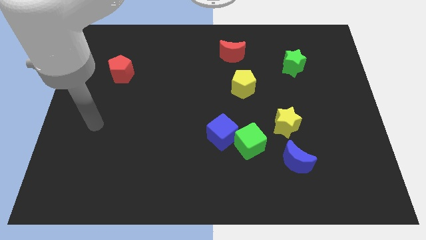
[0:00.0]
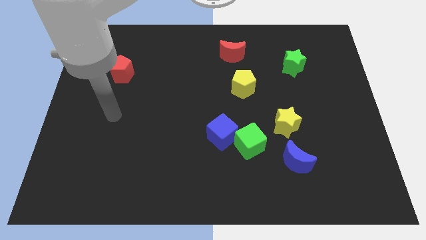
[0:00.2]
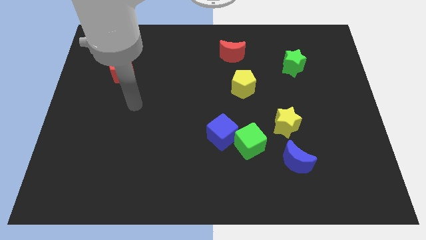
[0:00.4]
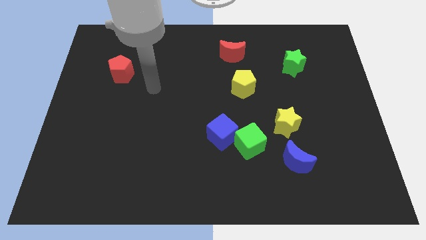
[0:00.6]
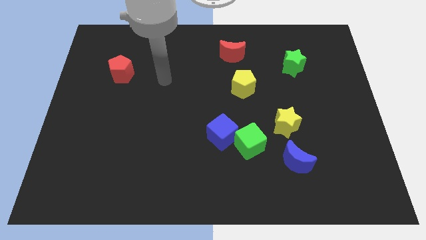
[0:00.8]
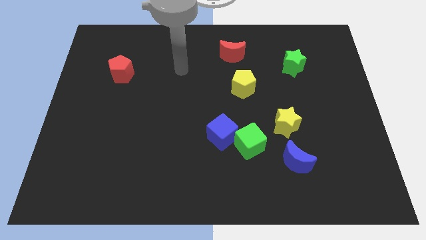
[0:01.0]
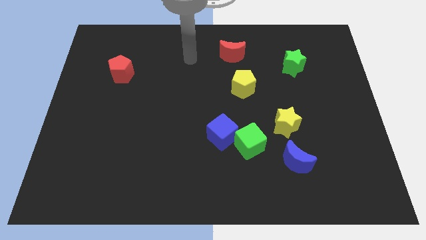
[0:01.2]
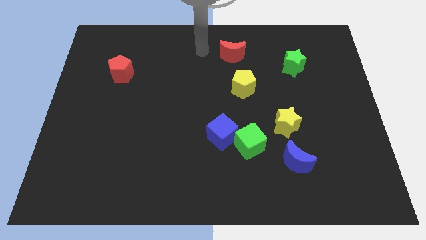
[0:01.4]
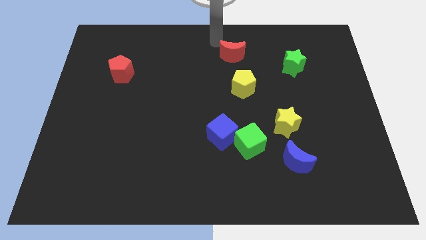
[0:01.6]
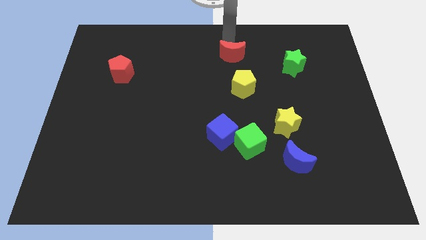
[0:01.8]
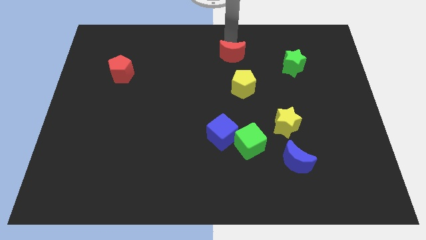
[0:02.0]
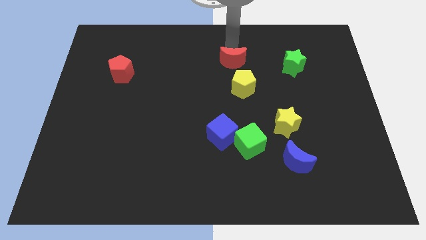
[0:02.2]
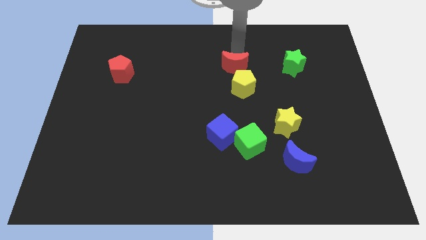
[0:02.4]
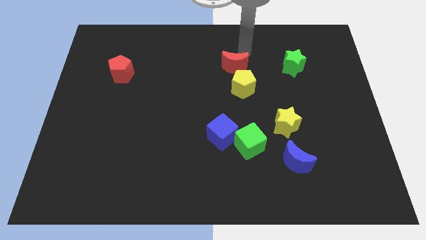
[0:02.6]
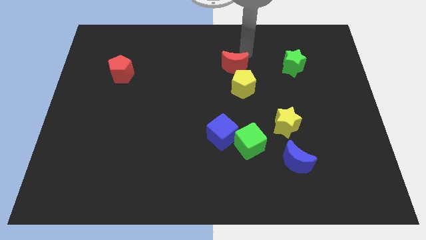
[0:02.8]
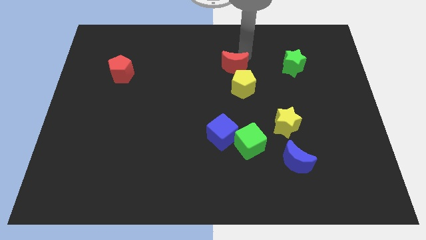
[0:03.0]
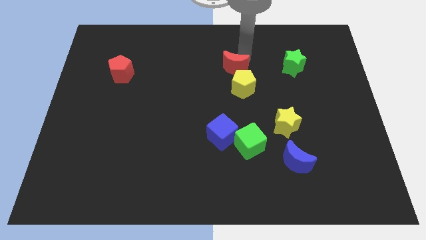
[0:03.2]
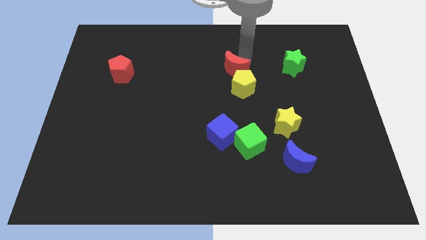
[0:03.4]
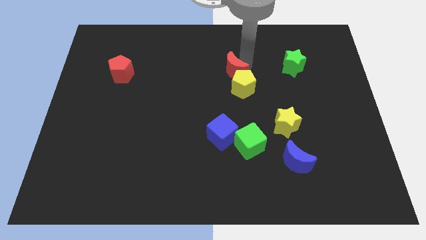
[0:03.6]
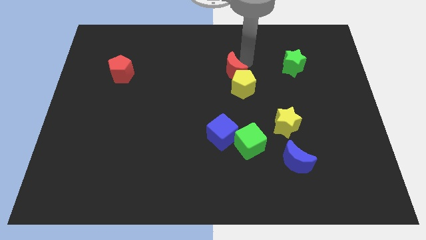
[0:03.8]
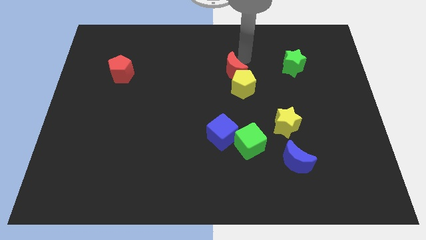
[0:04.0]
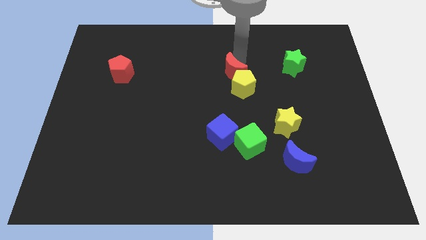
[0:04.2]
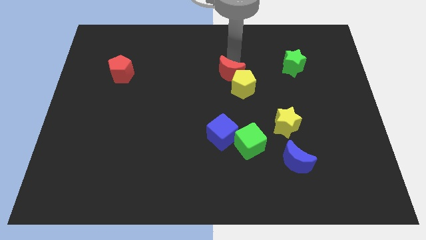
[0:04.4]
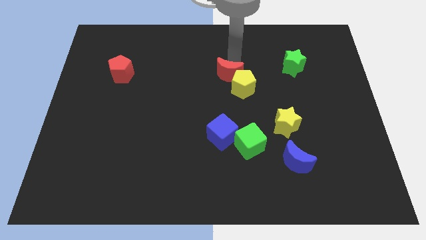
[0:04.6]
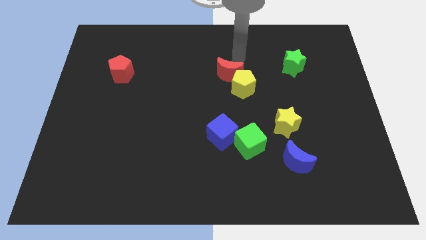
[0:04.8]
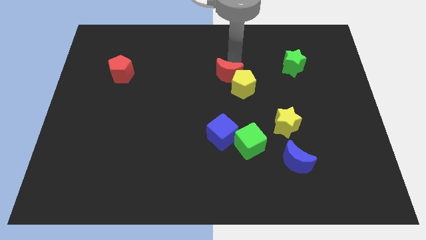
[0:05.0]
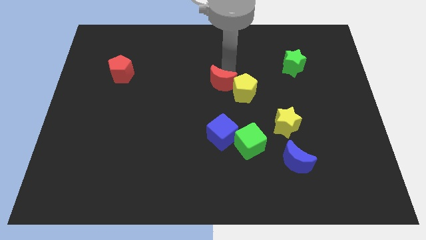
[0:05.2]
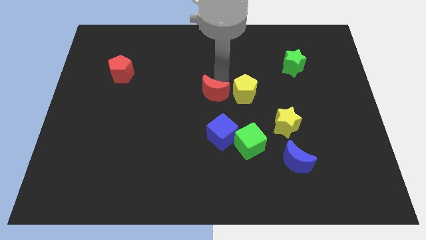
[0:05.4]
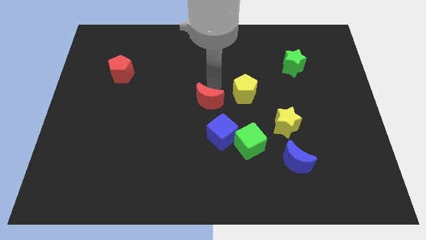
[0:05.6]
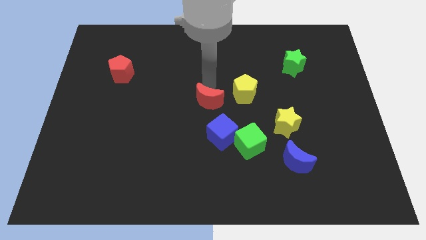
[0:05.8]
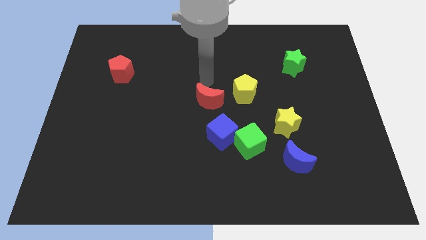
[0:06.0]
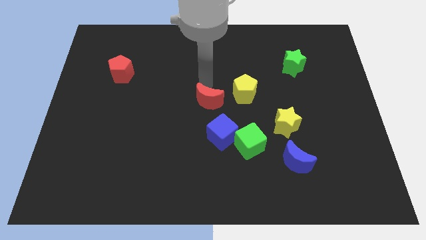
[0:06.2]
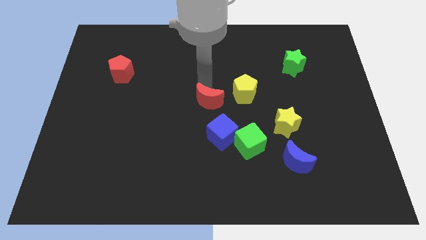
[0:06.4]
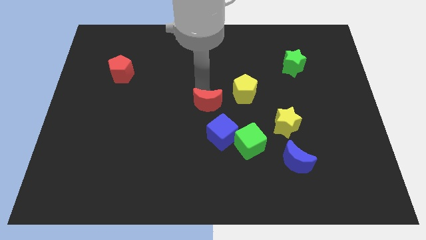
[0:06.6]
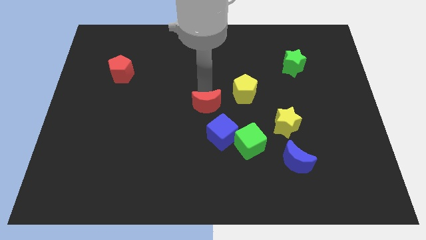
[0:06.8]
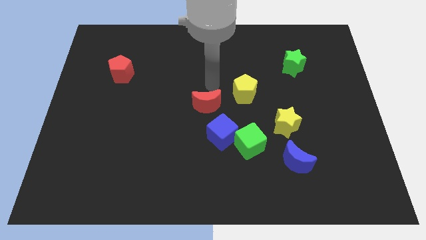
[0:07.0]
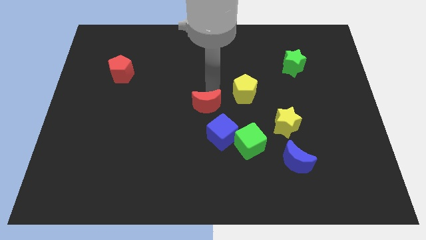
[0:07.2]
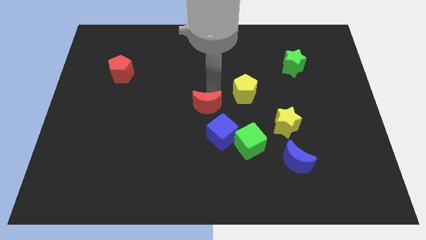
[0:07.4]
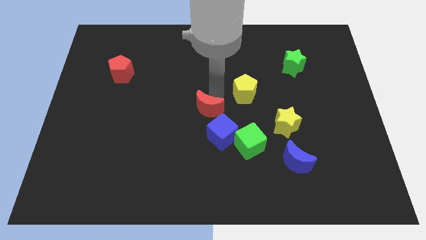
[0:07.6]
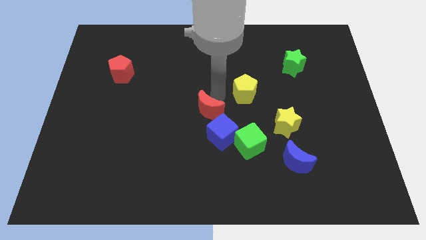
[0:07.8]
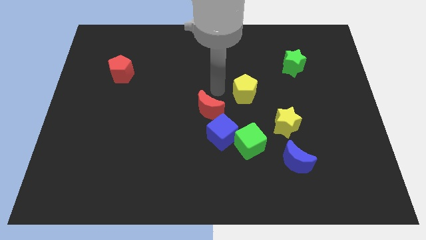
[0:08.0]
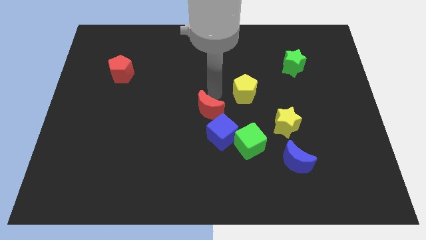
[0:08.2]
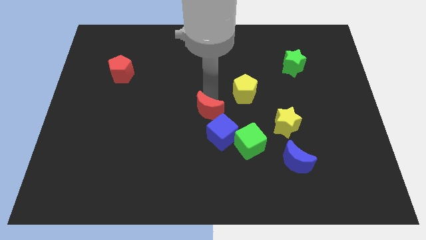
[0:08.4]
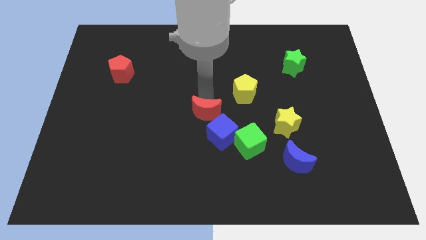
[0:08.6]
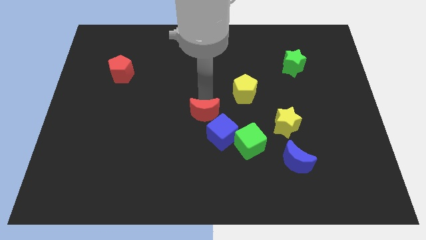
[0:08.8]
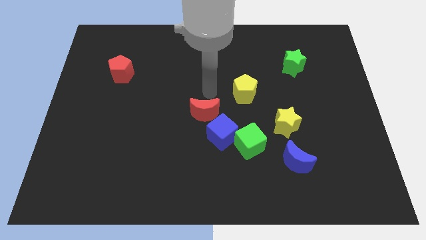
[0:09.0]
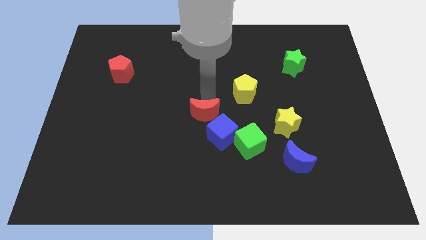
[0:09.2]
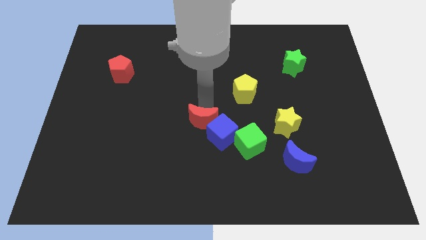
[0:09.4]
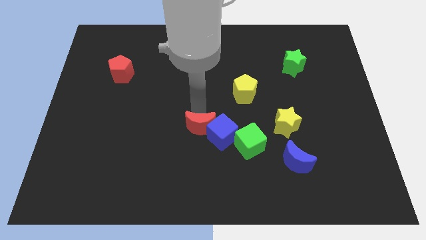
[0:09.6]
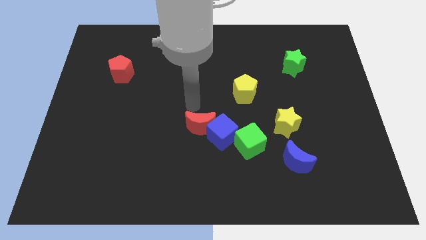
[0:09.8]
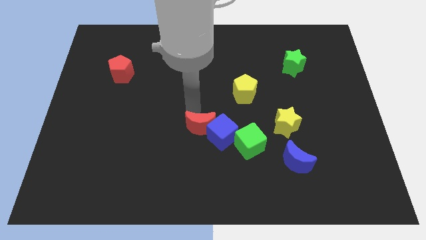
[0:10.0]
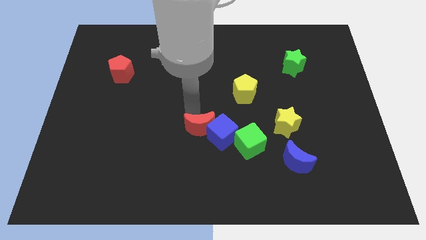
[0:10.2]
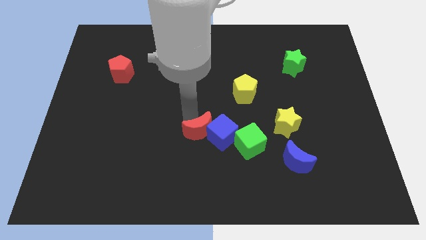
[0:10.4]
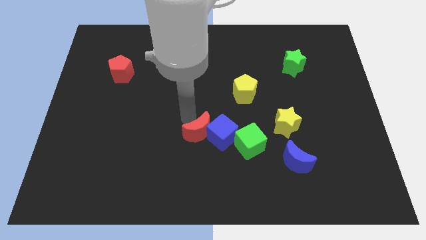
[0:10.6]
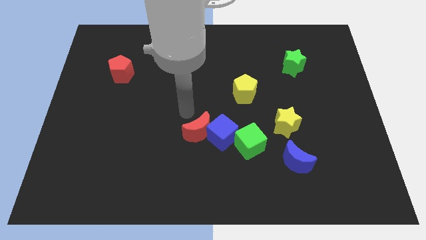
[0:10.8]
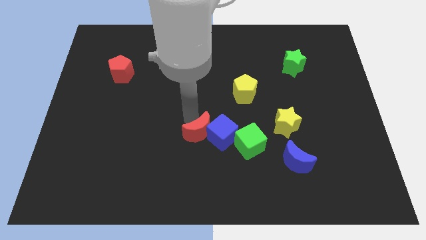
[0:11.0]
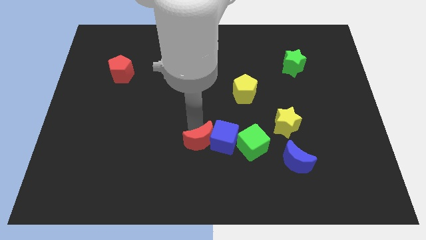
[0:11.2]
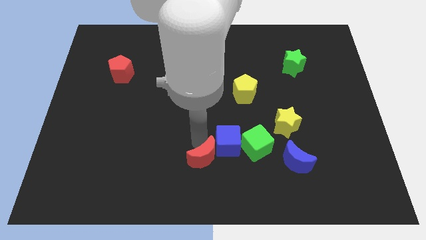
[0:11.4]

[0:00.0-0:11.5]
move the red moon to the bottom

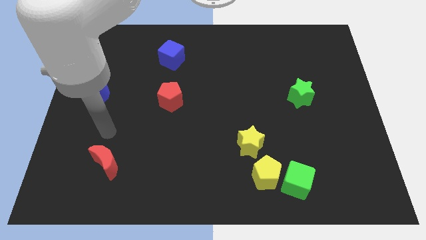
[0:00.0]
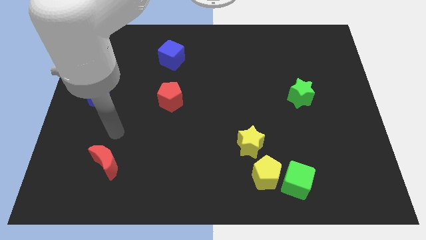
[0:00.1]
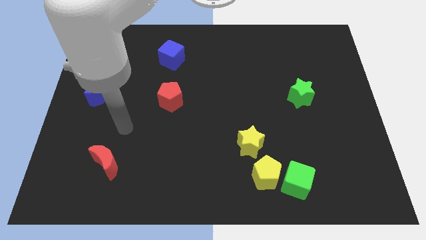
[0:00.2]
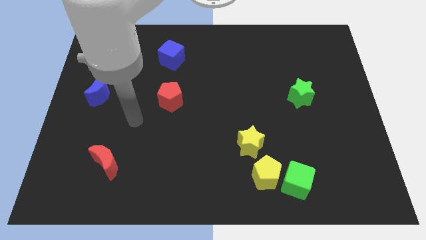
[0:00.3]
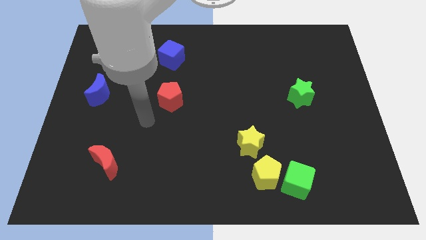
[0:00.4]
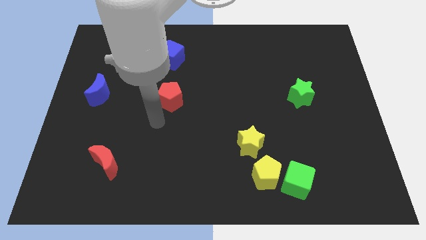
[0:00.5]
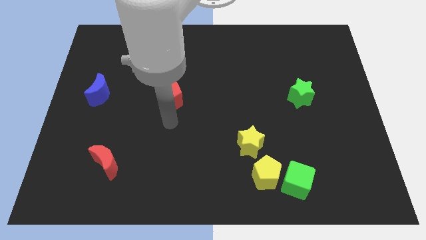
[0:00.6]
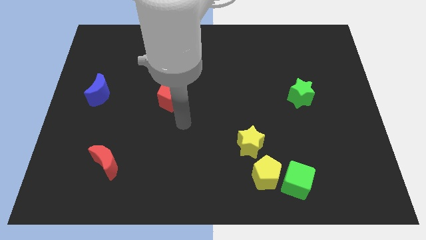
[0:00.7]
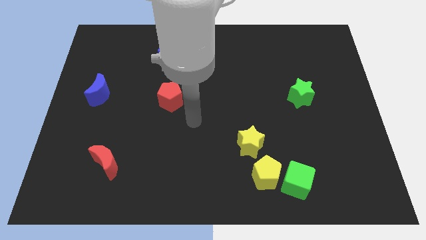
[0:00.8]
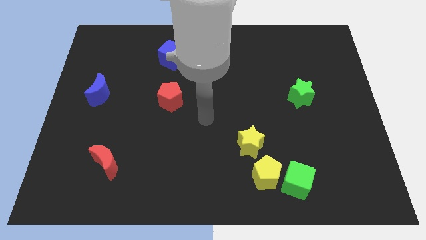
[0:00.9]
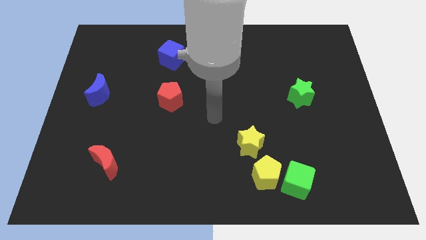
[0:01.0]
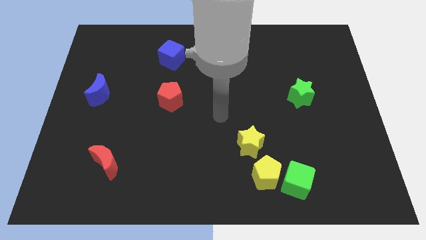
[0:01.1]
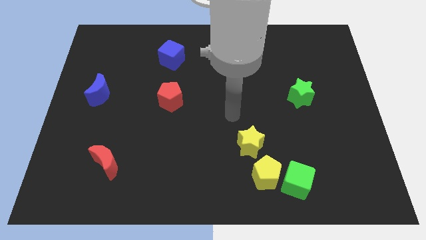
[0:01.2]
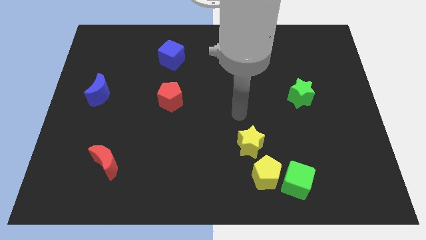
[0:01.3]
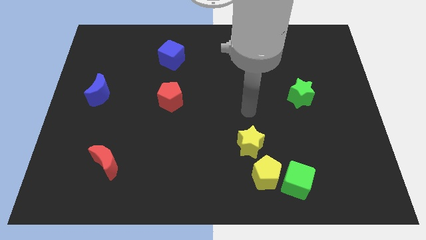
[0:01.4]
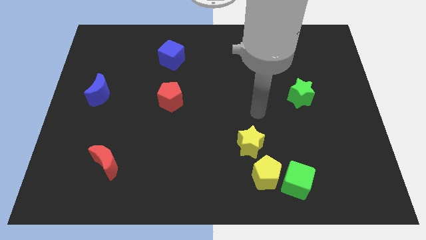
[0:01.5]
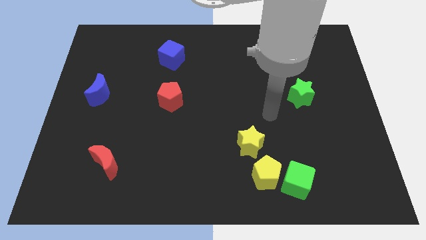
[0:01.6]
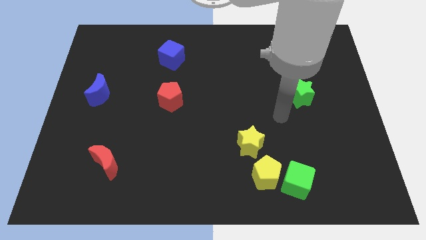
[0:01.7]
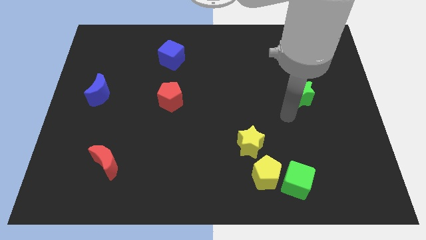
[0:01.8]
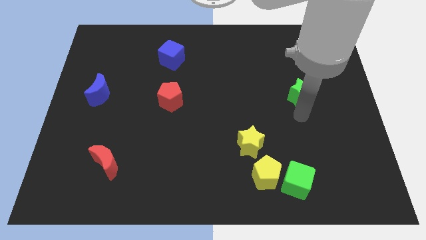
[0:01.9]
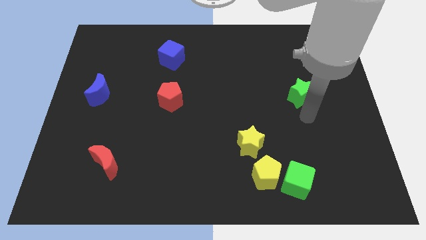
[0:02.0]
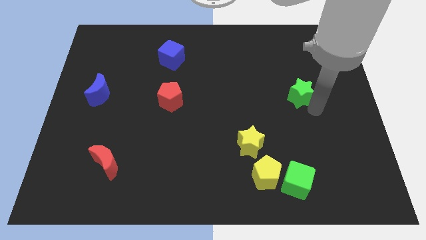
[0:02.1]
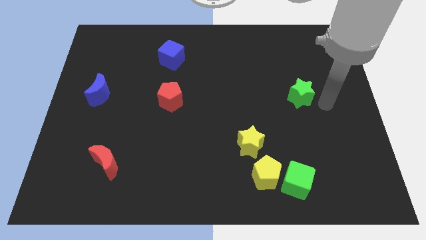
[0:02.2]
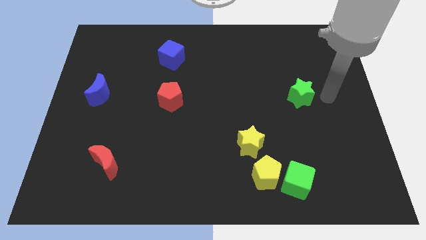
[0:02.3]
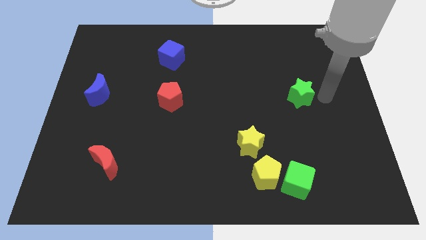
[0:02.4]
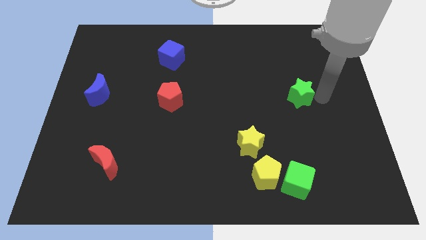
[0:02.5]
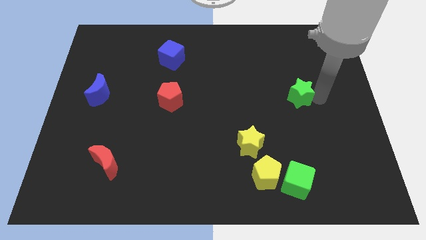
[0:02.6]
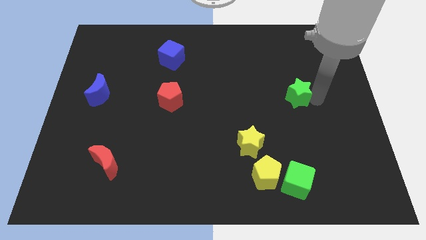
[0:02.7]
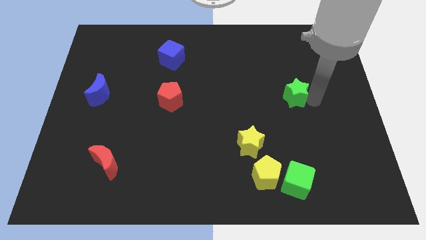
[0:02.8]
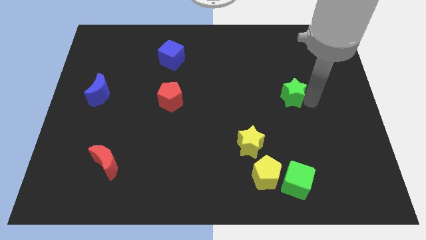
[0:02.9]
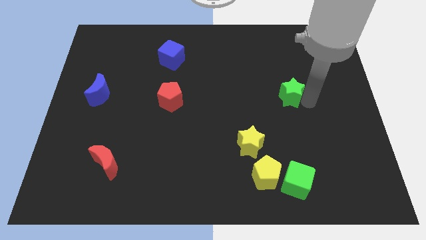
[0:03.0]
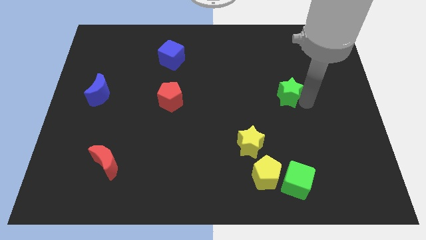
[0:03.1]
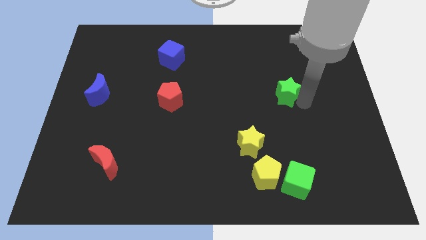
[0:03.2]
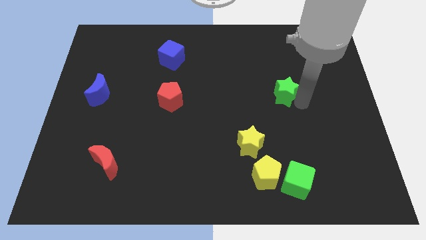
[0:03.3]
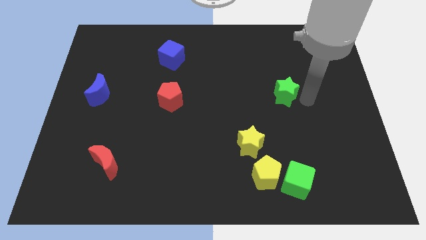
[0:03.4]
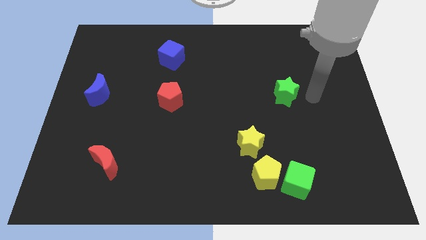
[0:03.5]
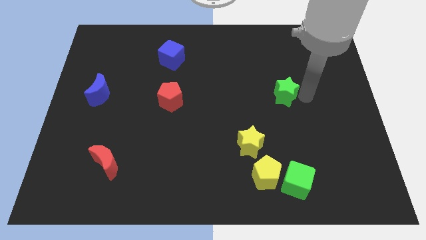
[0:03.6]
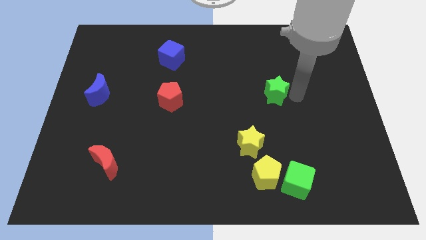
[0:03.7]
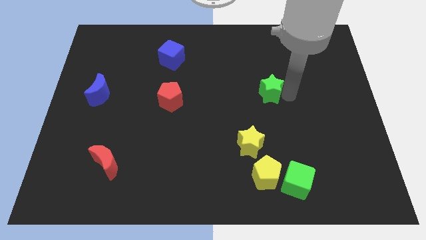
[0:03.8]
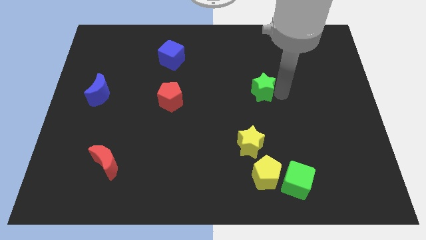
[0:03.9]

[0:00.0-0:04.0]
slide the green star to the center
